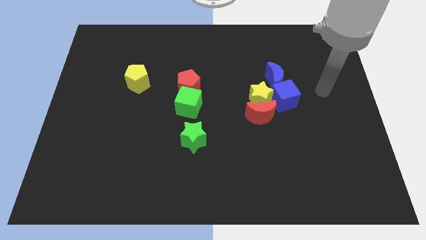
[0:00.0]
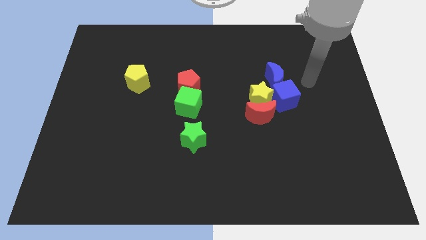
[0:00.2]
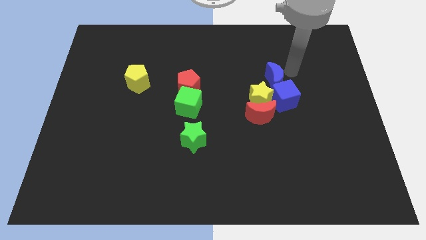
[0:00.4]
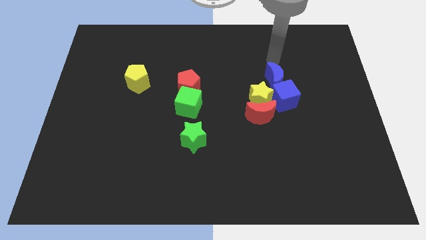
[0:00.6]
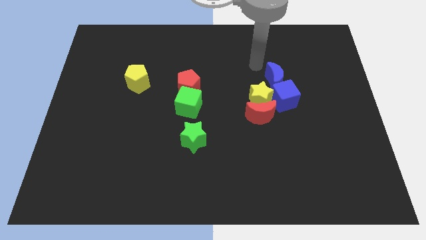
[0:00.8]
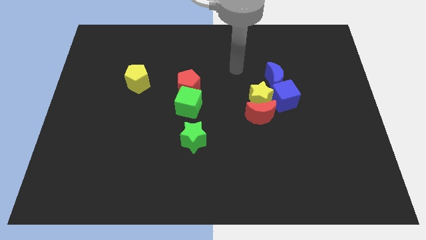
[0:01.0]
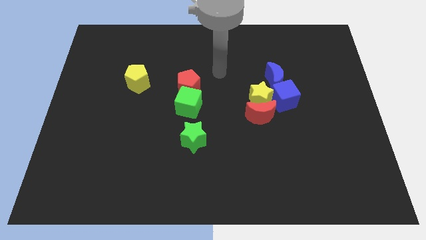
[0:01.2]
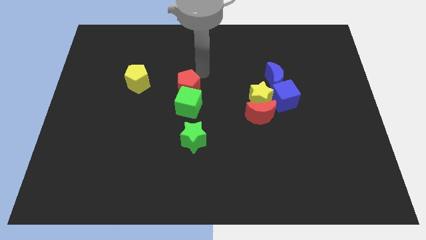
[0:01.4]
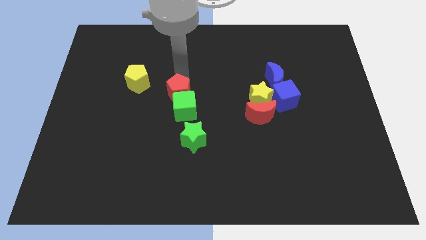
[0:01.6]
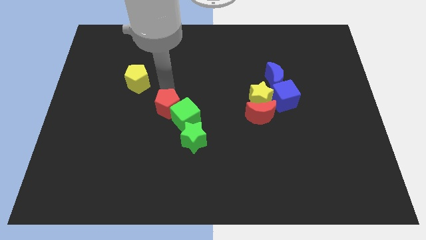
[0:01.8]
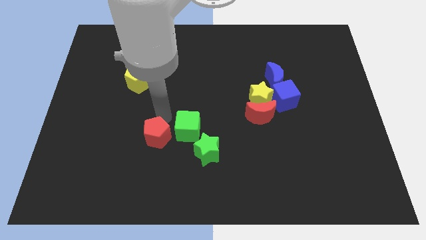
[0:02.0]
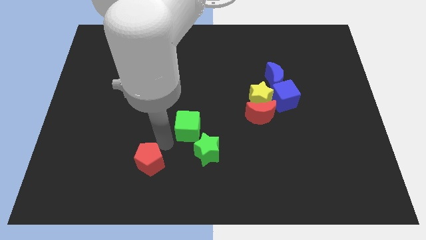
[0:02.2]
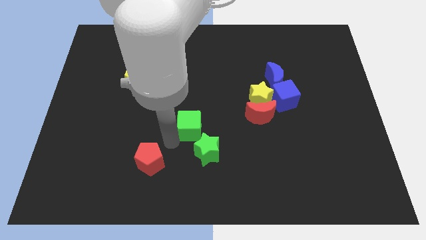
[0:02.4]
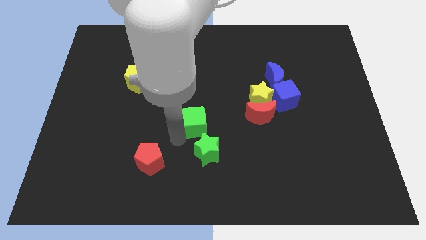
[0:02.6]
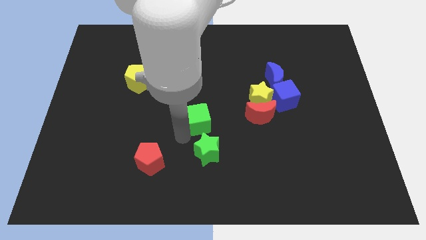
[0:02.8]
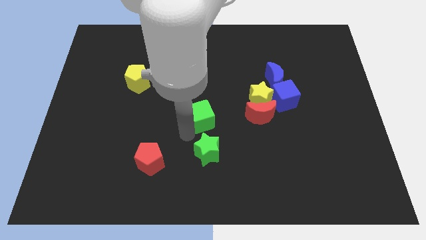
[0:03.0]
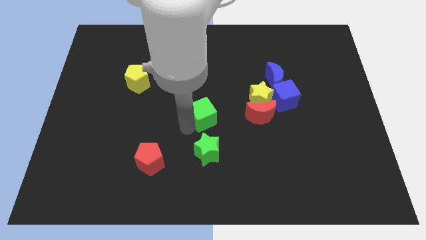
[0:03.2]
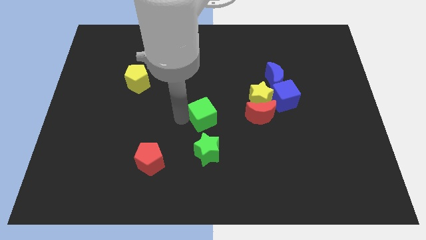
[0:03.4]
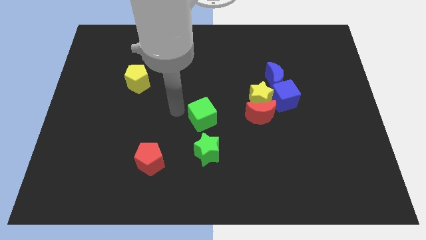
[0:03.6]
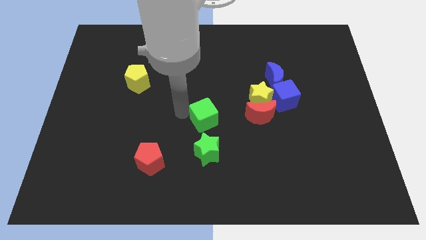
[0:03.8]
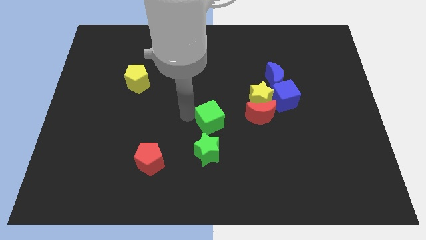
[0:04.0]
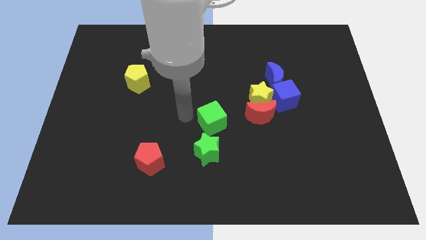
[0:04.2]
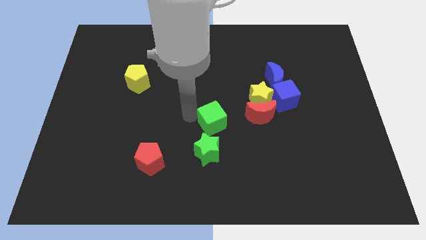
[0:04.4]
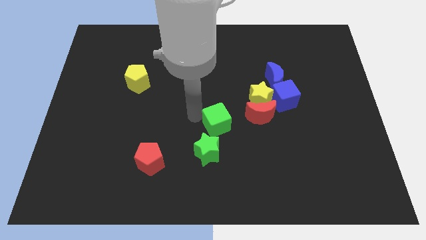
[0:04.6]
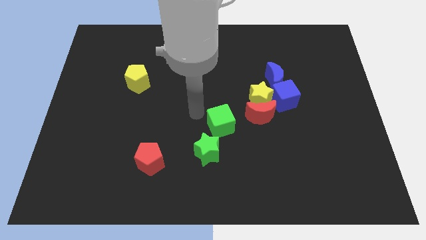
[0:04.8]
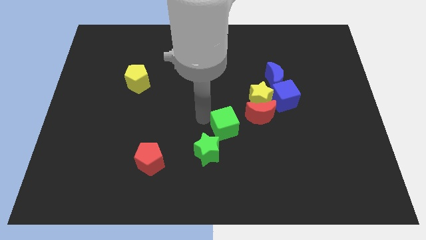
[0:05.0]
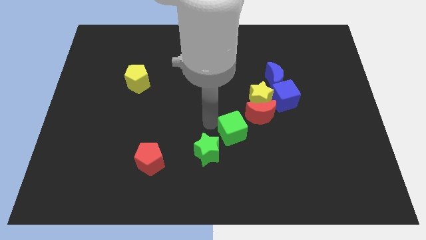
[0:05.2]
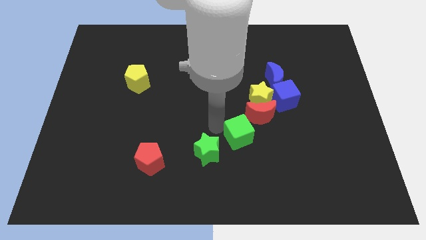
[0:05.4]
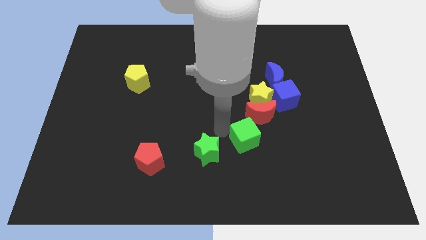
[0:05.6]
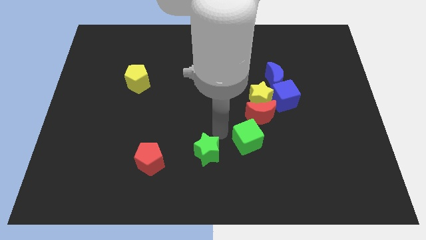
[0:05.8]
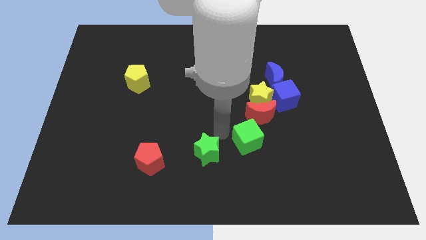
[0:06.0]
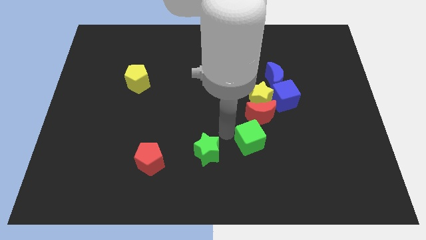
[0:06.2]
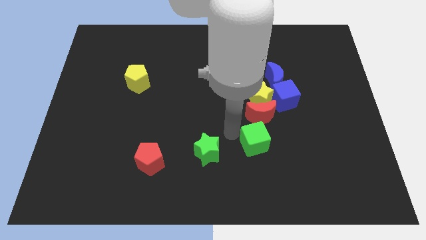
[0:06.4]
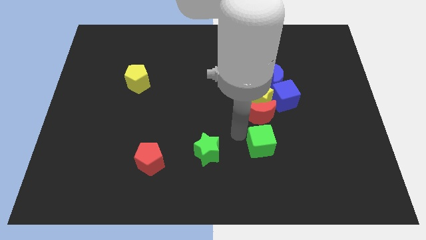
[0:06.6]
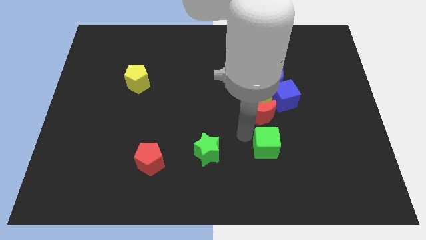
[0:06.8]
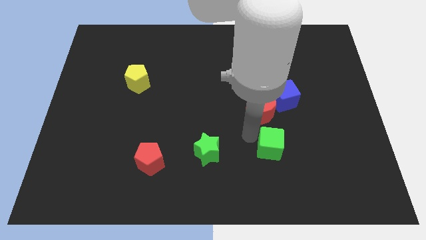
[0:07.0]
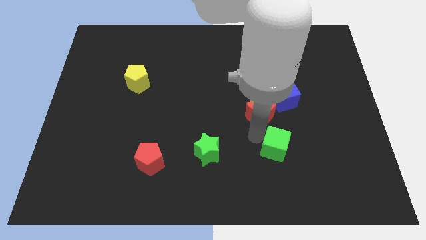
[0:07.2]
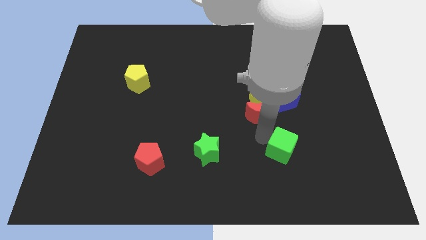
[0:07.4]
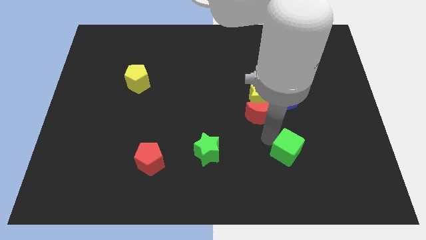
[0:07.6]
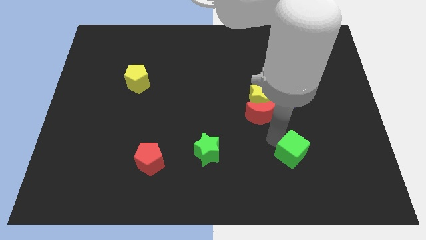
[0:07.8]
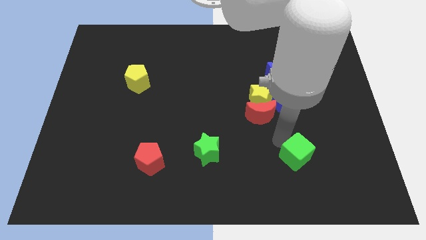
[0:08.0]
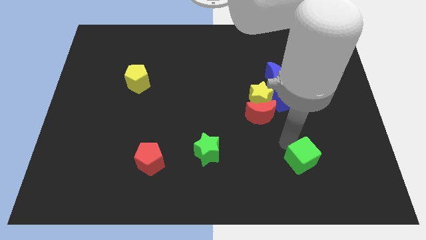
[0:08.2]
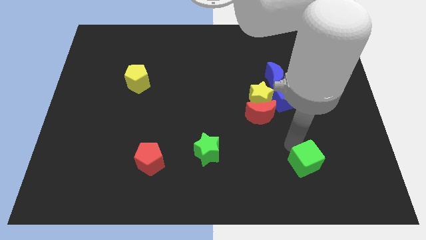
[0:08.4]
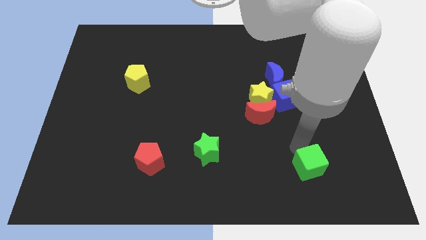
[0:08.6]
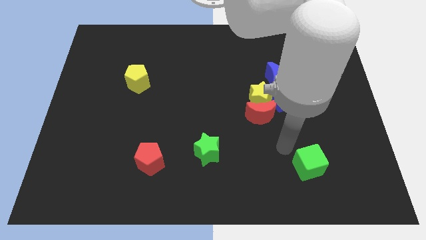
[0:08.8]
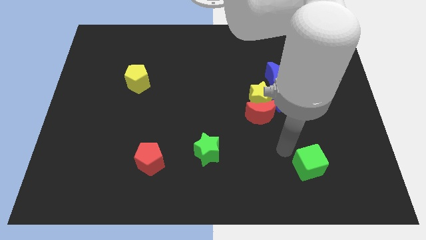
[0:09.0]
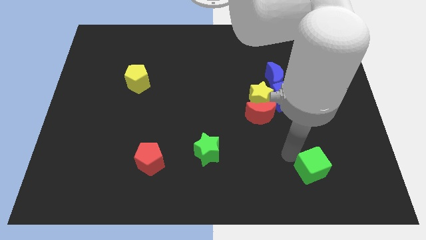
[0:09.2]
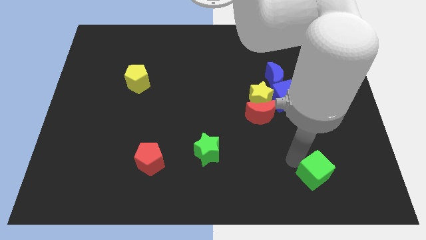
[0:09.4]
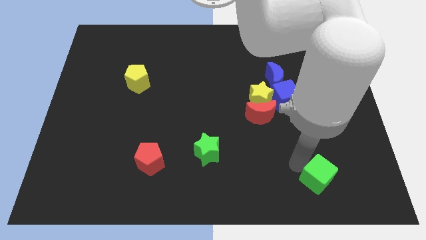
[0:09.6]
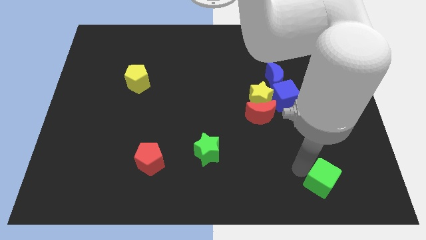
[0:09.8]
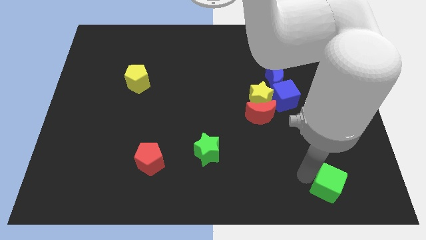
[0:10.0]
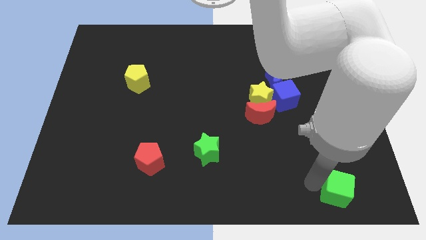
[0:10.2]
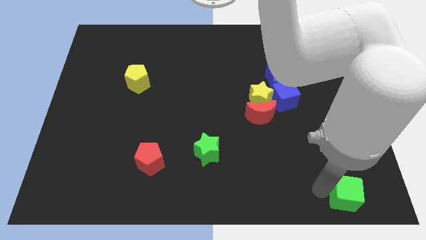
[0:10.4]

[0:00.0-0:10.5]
put the green cube to the lower right corner
